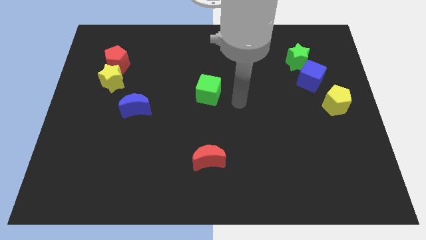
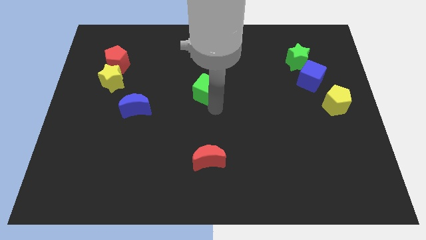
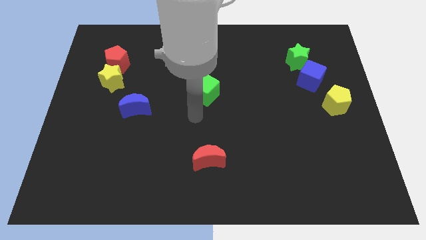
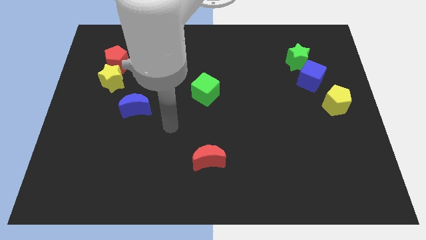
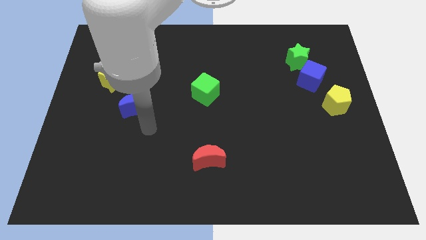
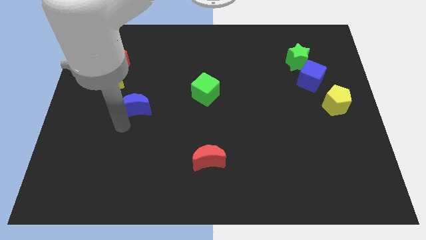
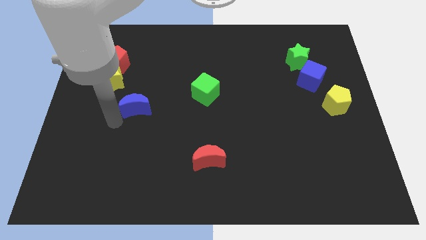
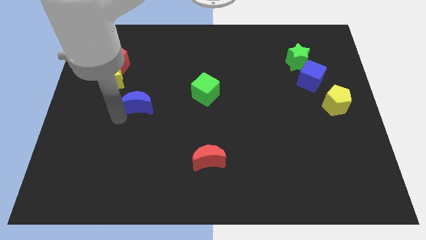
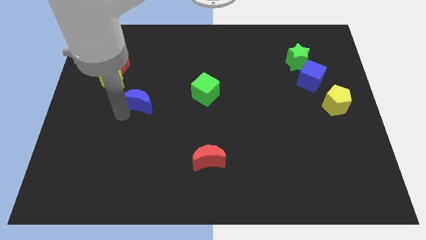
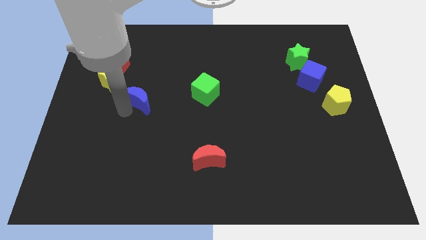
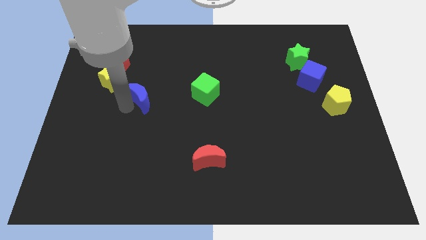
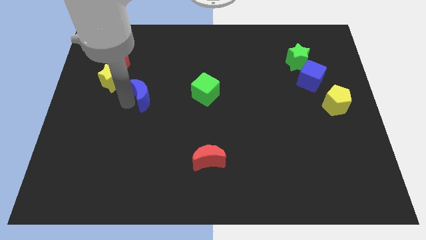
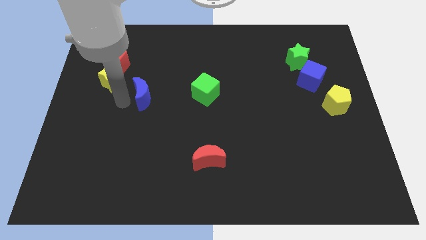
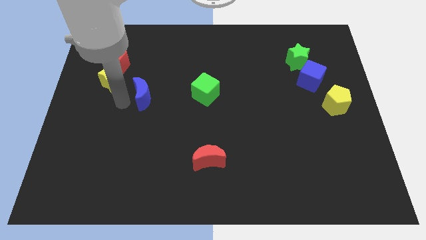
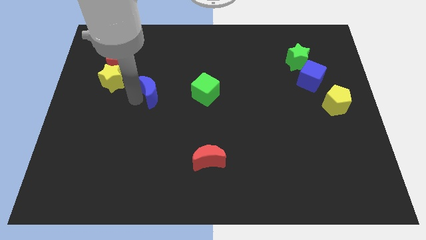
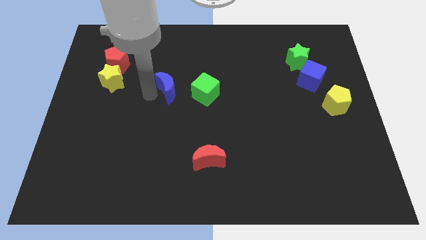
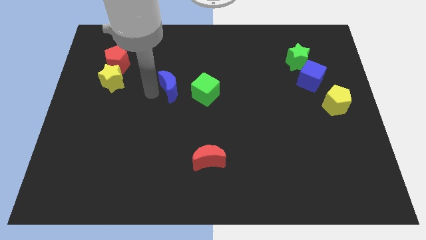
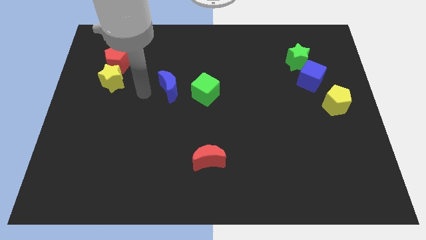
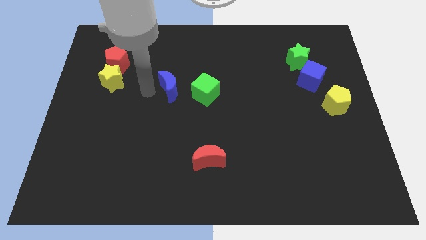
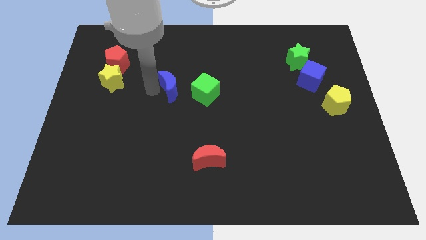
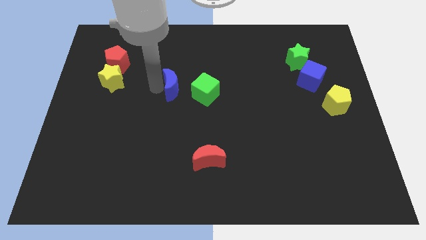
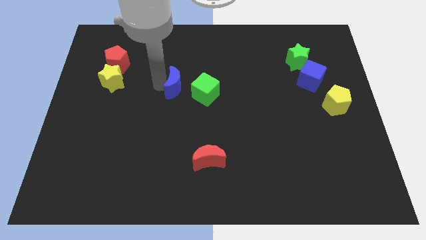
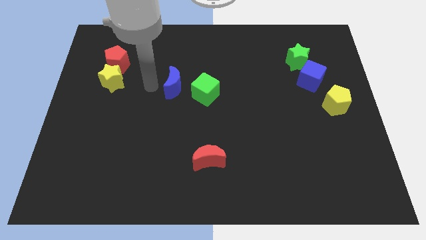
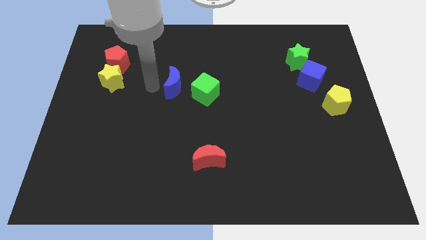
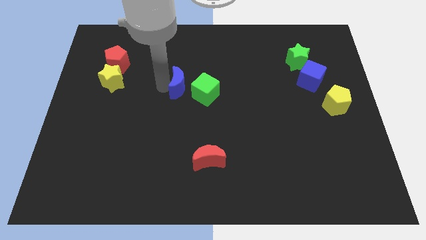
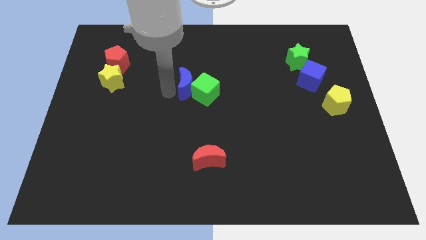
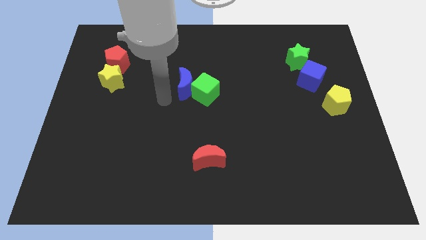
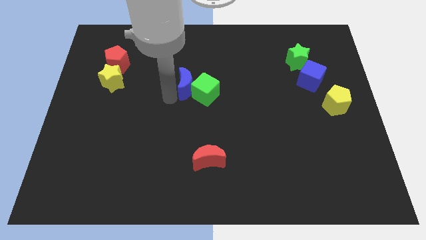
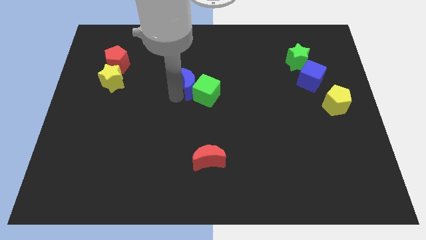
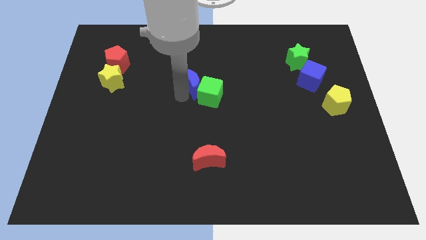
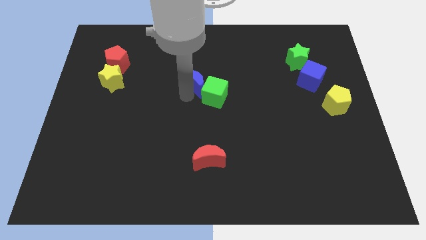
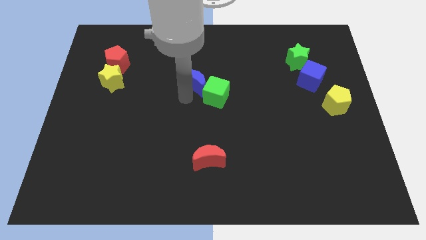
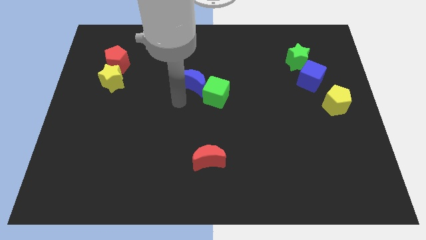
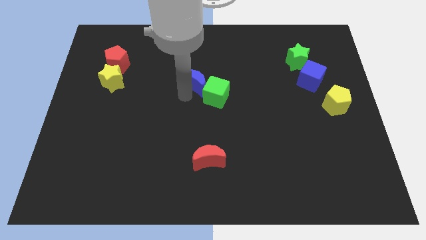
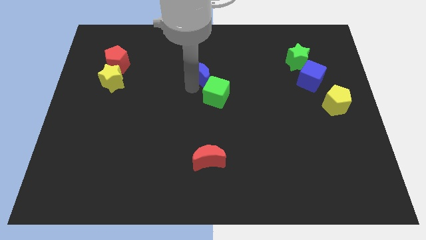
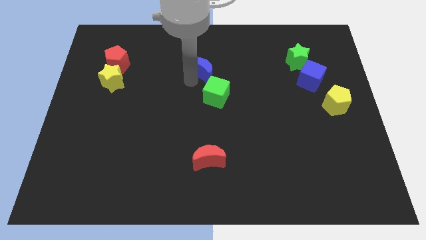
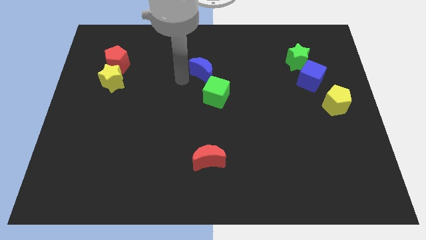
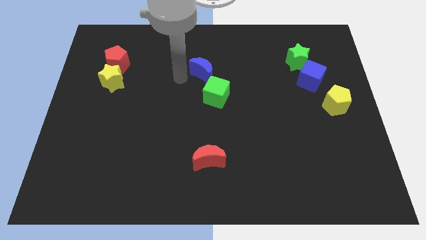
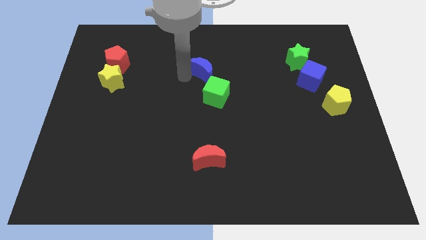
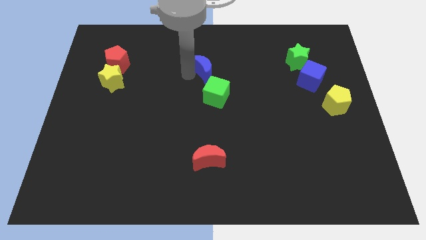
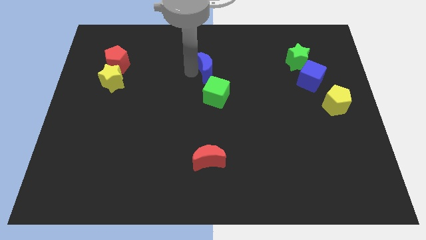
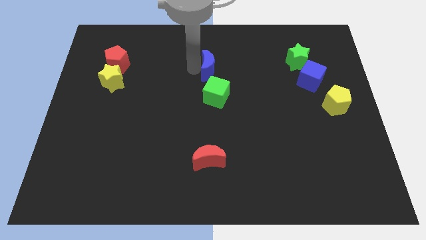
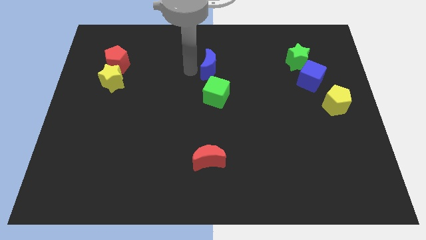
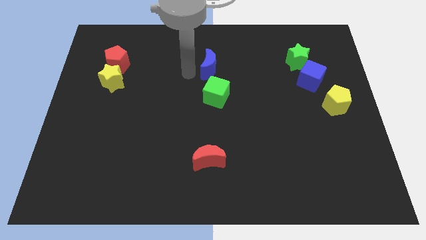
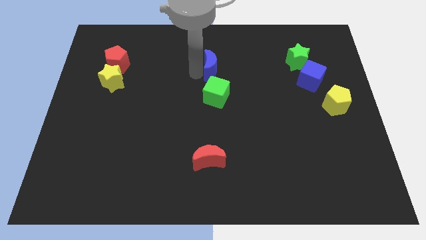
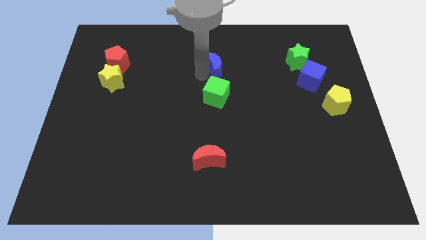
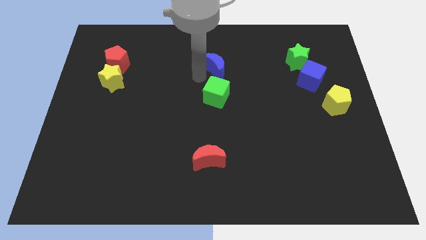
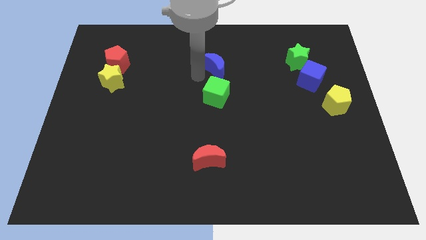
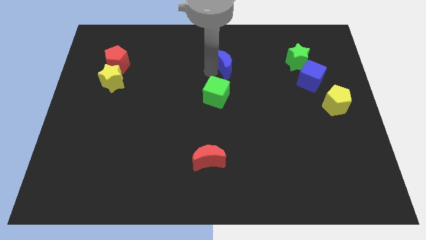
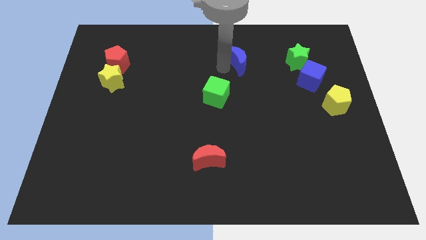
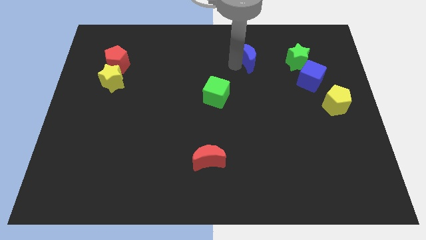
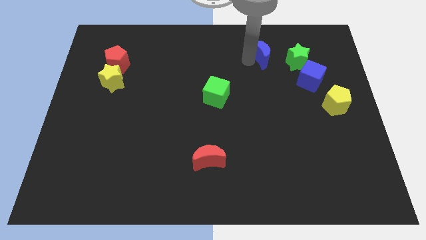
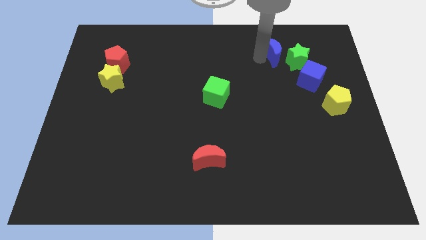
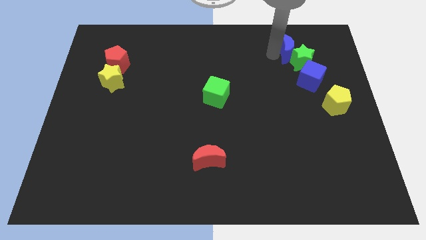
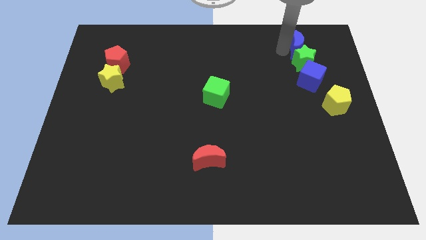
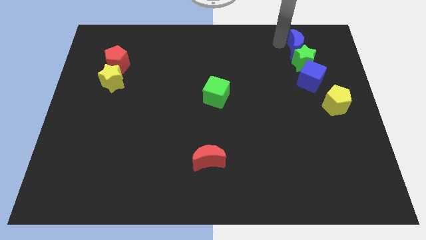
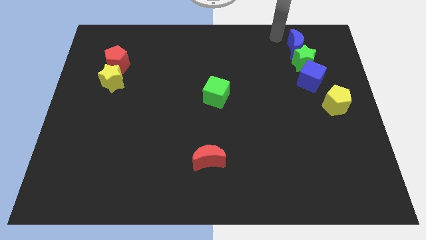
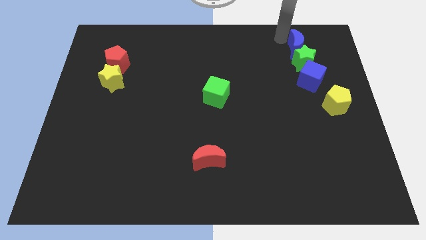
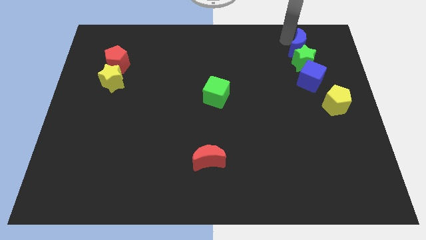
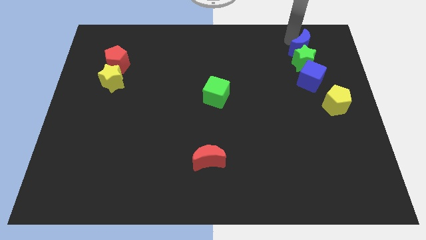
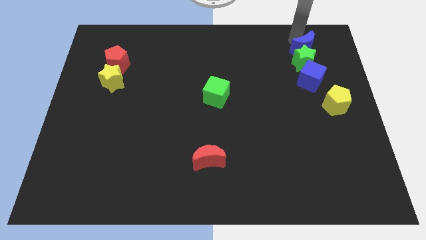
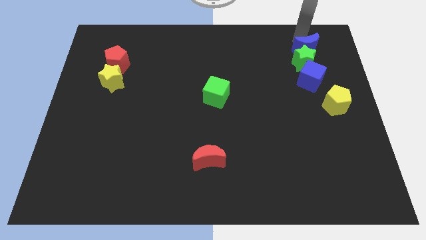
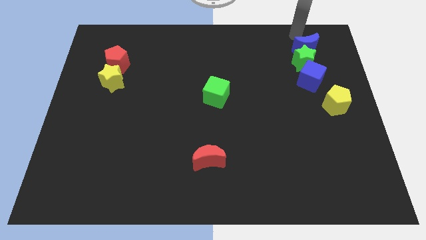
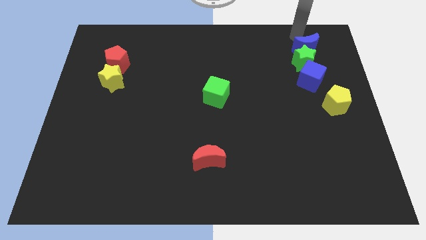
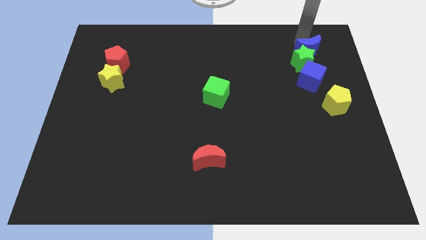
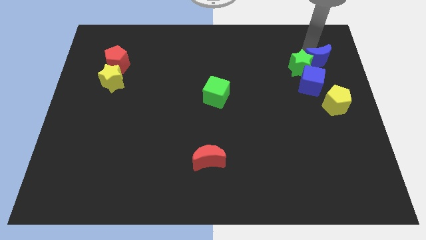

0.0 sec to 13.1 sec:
put the blue moon above the yellow pentagon

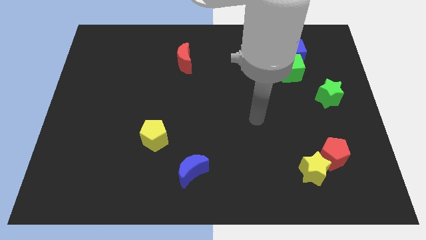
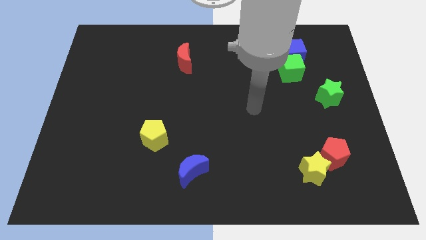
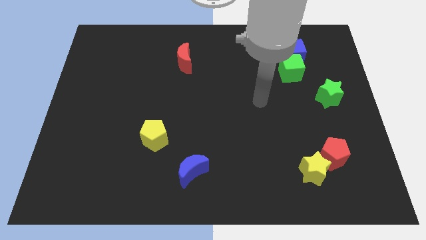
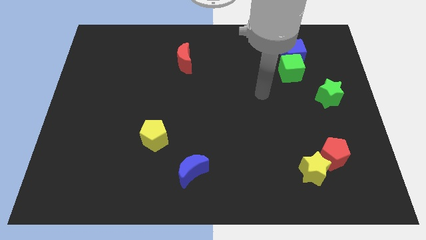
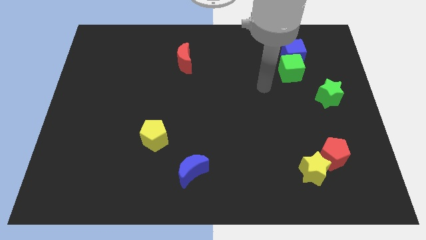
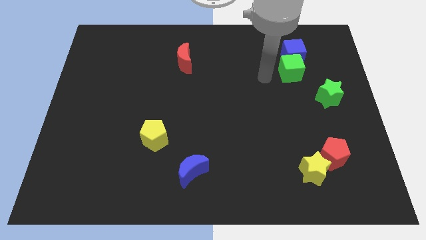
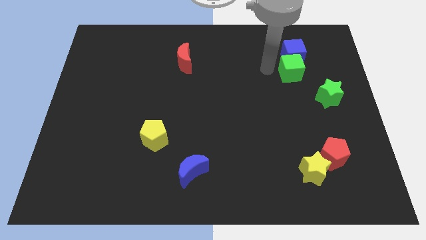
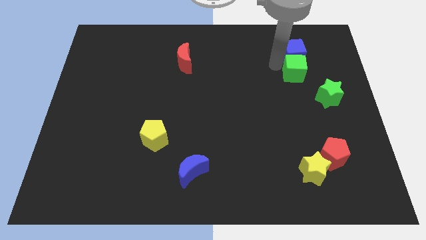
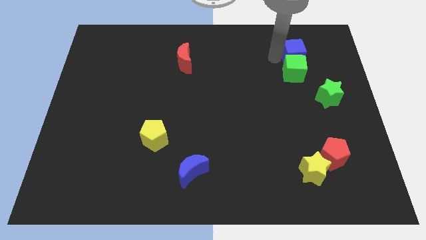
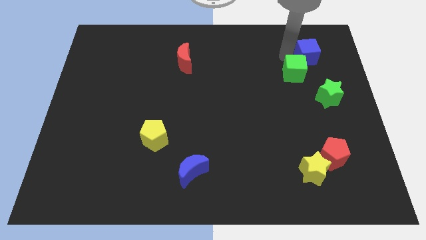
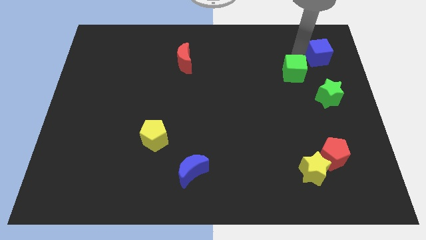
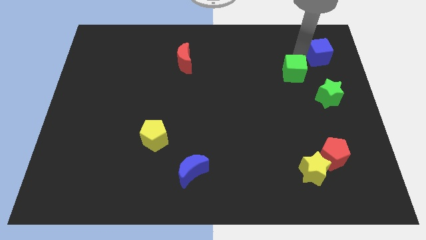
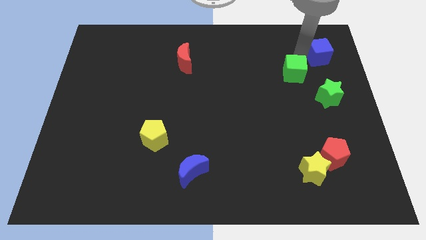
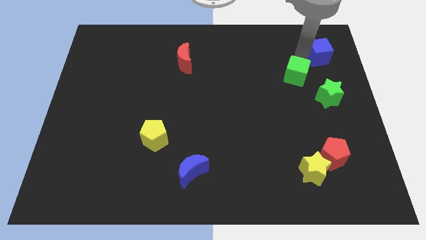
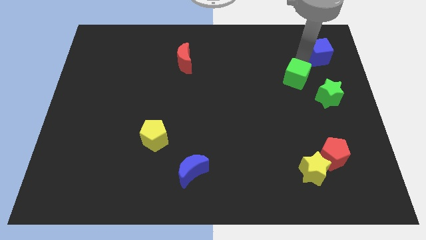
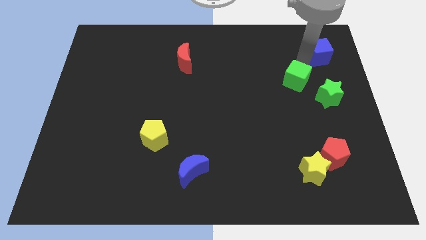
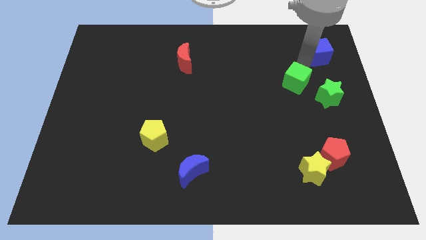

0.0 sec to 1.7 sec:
slide the green cube left of the green star
